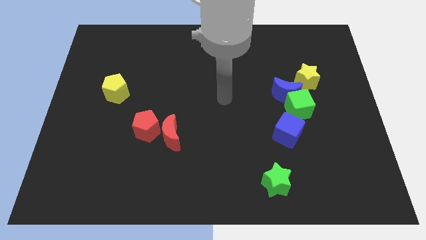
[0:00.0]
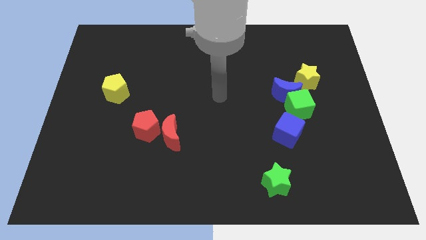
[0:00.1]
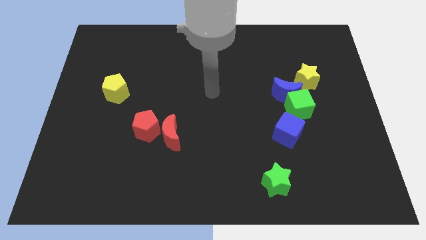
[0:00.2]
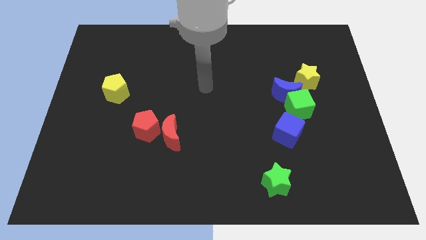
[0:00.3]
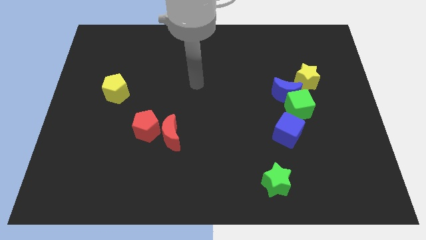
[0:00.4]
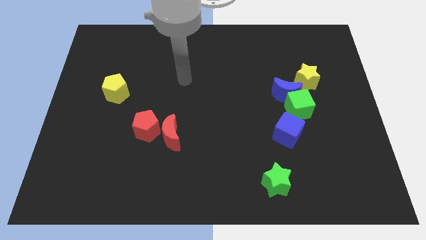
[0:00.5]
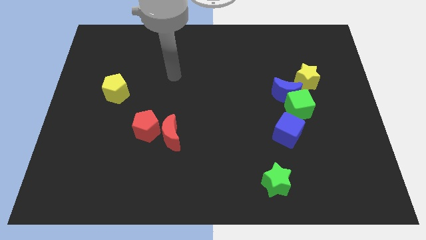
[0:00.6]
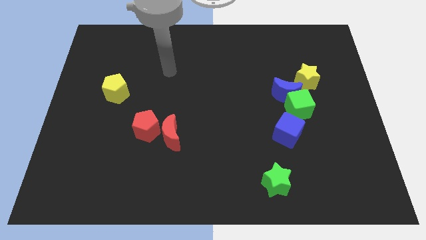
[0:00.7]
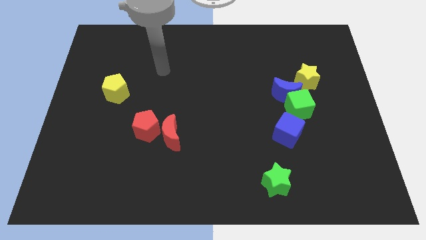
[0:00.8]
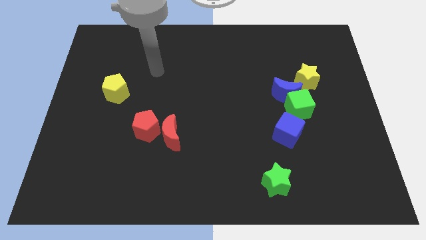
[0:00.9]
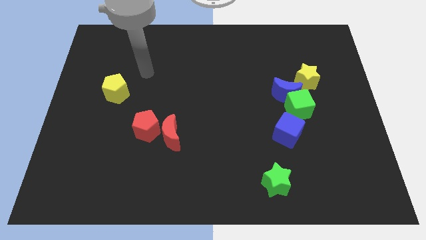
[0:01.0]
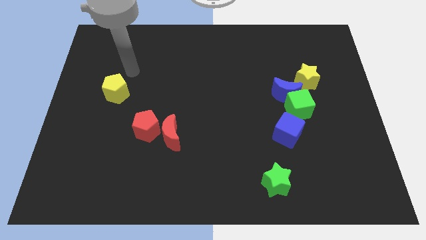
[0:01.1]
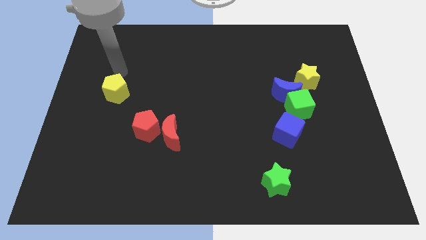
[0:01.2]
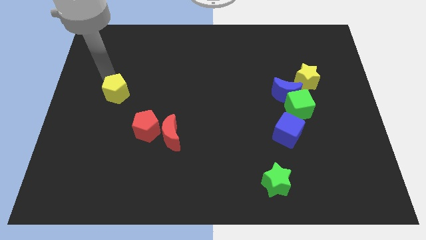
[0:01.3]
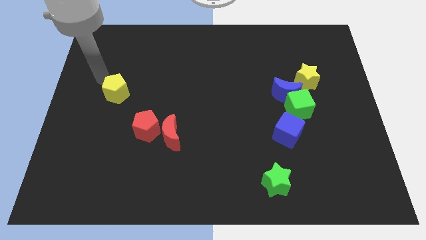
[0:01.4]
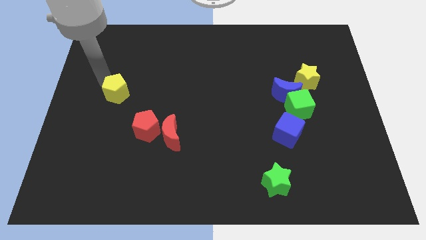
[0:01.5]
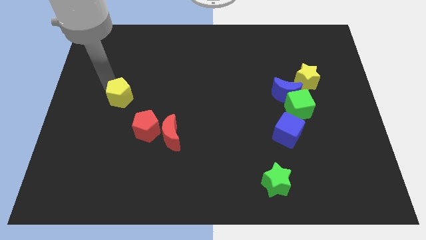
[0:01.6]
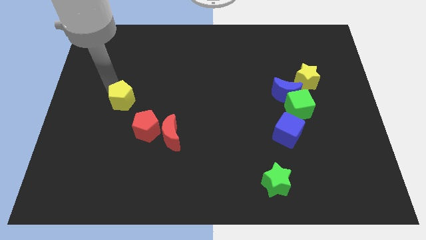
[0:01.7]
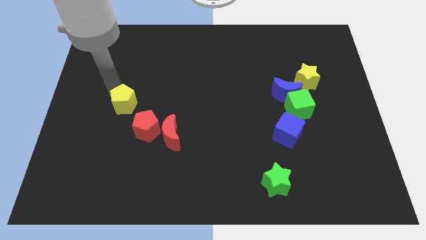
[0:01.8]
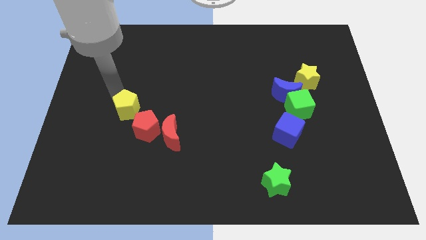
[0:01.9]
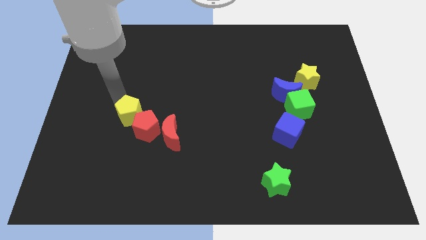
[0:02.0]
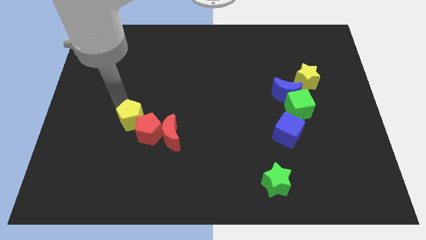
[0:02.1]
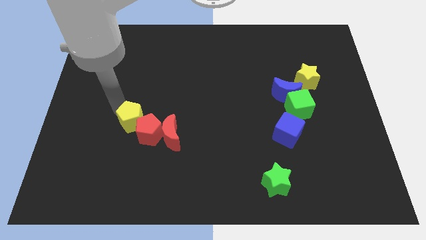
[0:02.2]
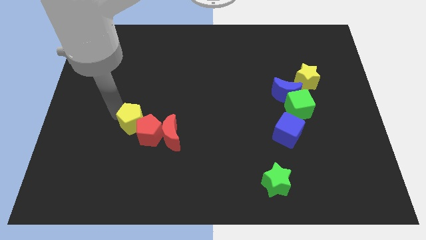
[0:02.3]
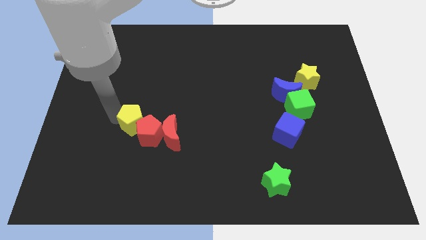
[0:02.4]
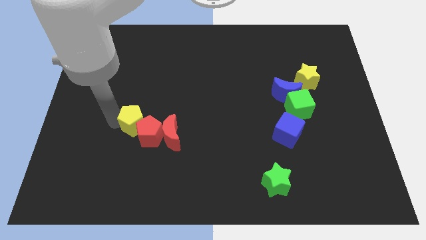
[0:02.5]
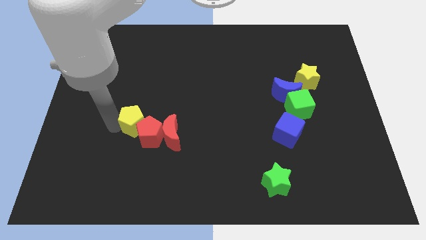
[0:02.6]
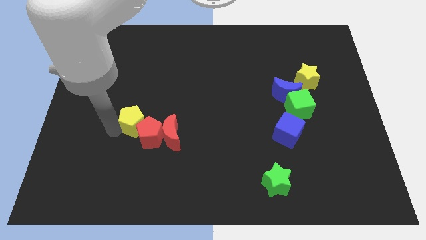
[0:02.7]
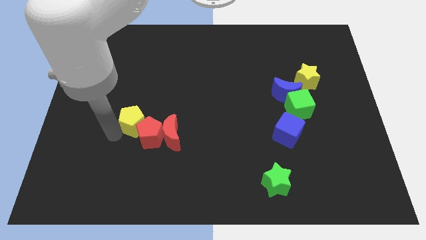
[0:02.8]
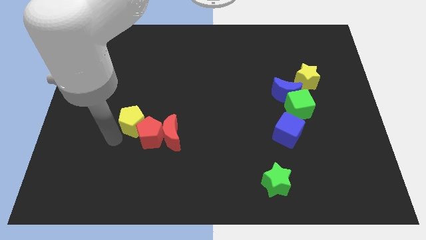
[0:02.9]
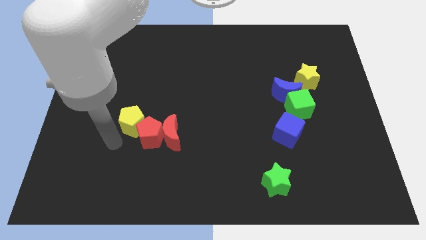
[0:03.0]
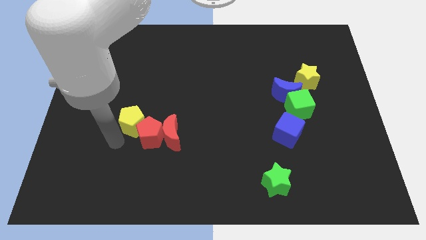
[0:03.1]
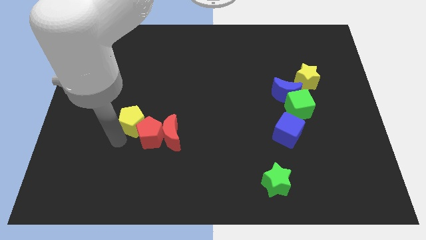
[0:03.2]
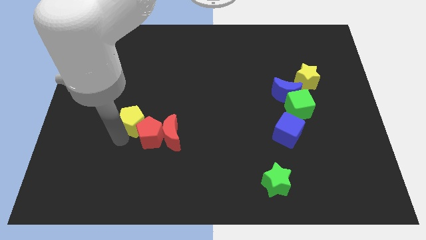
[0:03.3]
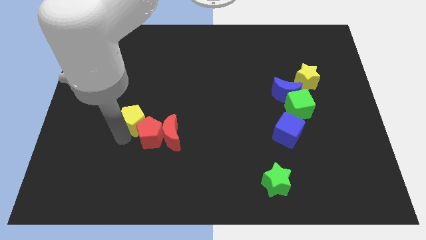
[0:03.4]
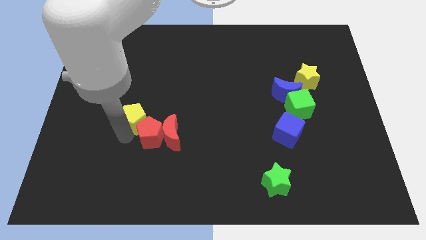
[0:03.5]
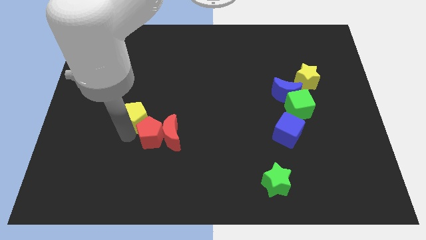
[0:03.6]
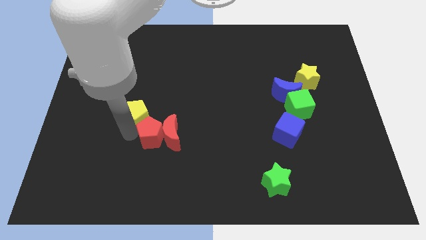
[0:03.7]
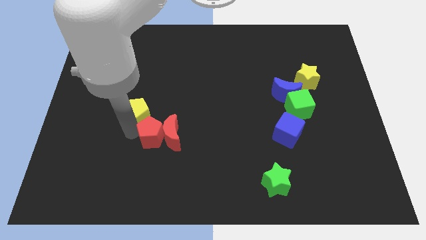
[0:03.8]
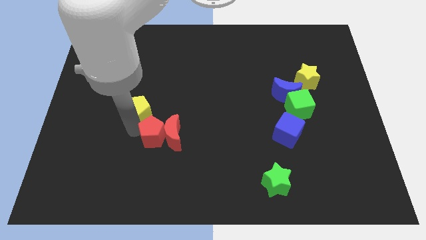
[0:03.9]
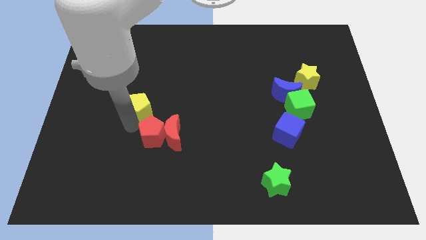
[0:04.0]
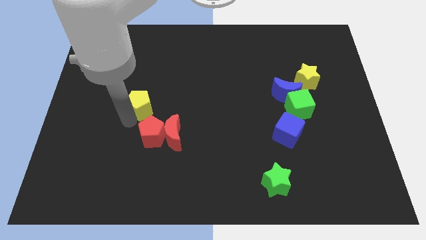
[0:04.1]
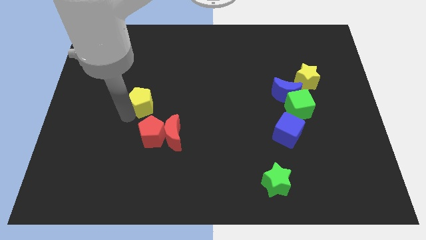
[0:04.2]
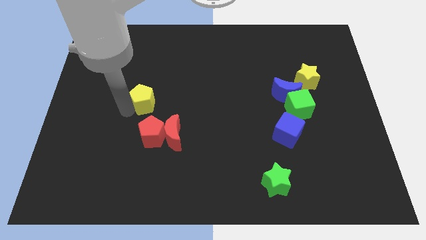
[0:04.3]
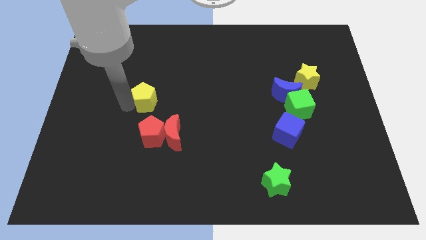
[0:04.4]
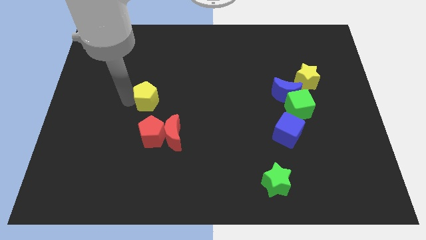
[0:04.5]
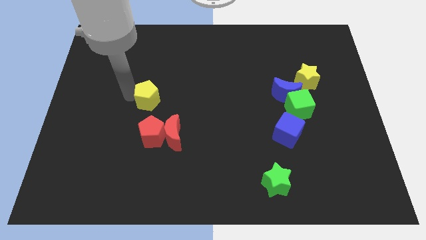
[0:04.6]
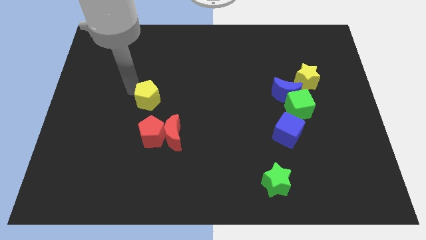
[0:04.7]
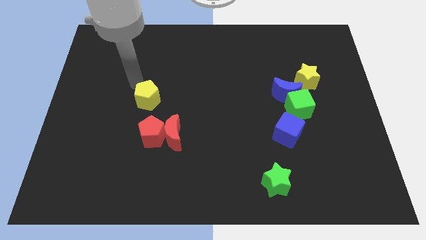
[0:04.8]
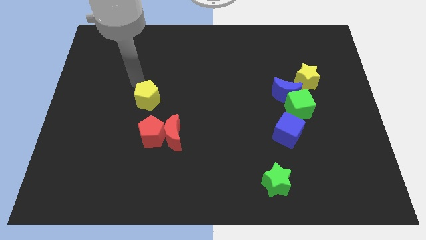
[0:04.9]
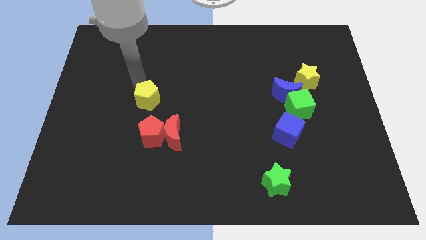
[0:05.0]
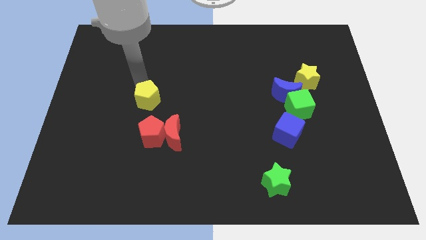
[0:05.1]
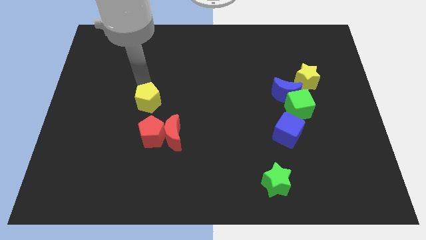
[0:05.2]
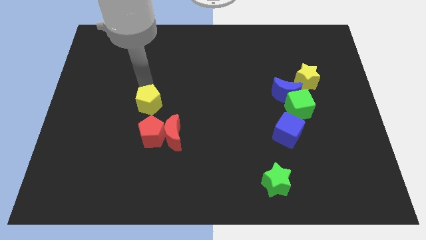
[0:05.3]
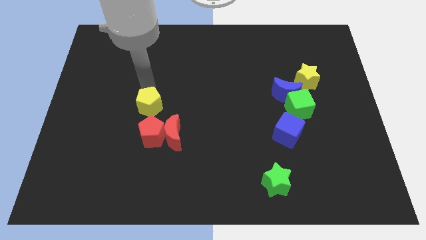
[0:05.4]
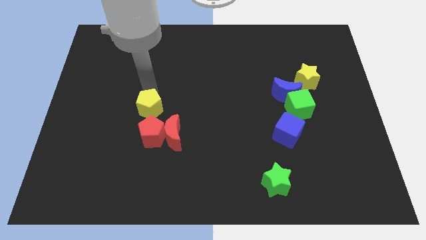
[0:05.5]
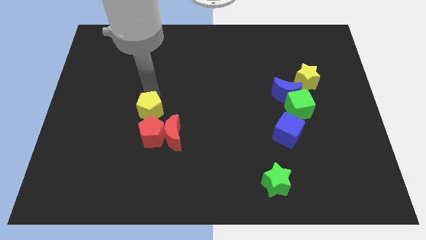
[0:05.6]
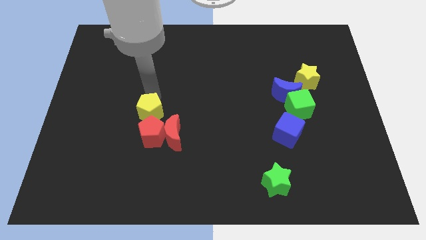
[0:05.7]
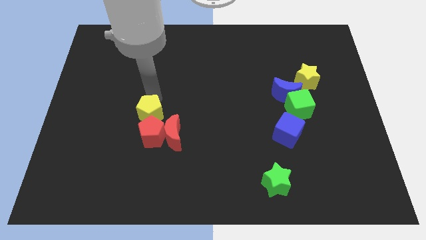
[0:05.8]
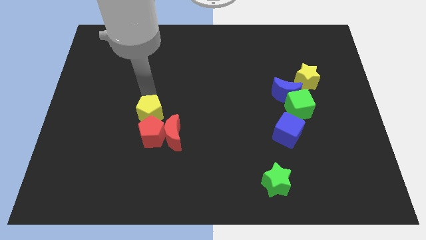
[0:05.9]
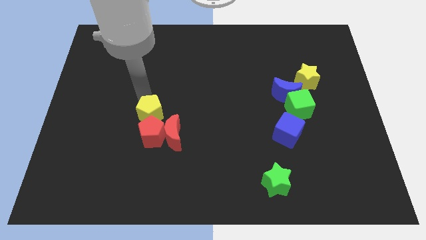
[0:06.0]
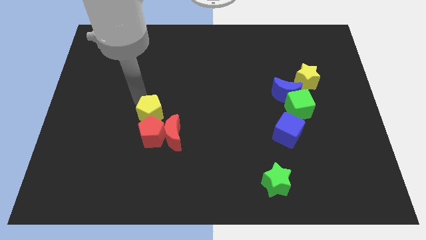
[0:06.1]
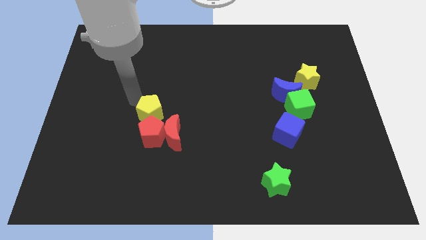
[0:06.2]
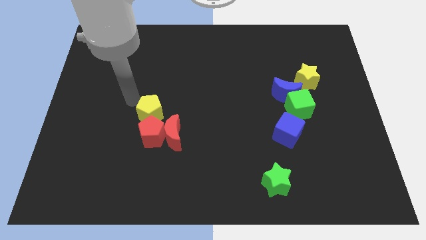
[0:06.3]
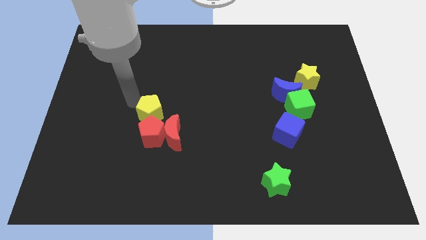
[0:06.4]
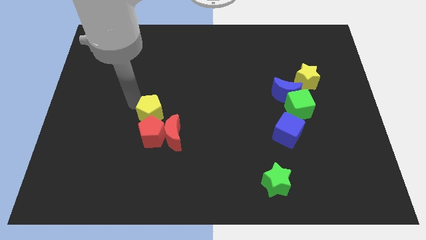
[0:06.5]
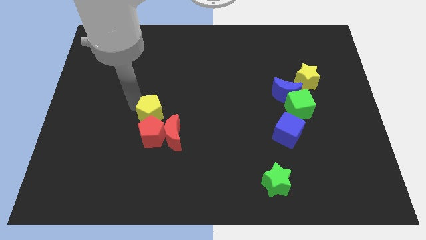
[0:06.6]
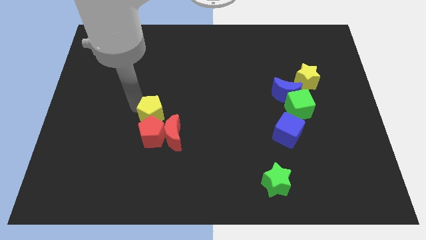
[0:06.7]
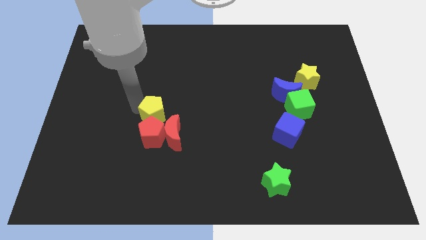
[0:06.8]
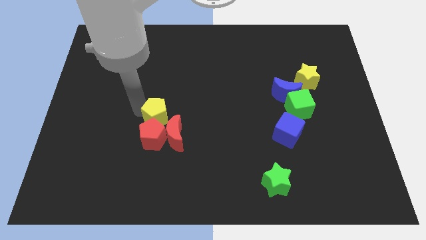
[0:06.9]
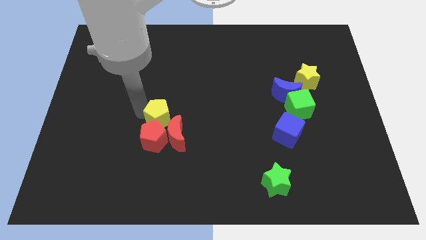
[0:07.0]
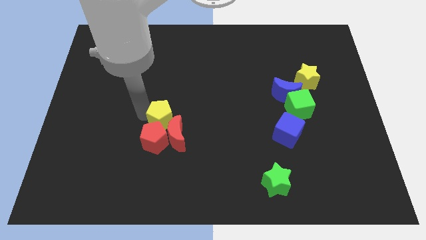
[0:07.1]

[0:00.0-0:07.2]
slide the yellow pentagon towards the red moon
